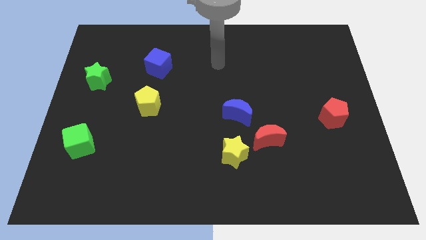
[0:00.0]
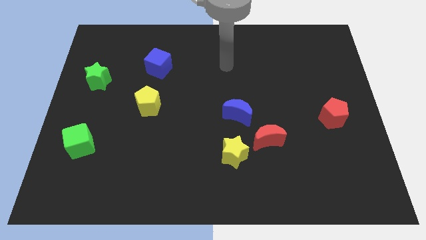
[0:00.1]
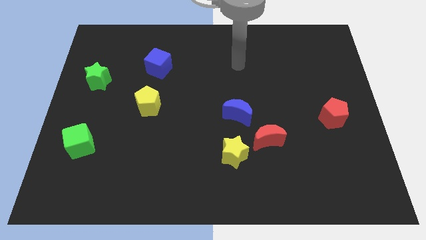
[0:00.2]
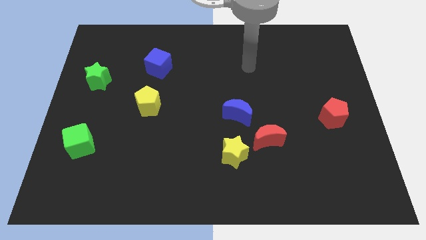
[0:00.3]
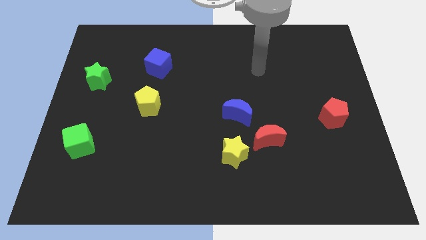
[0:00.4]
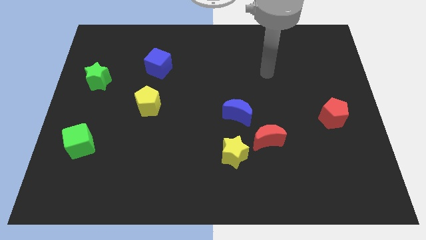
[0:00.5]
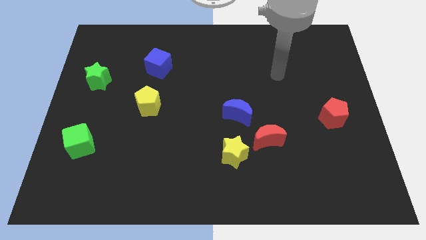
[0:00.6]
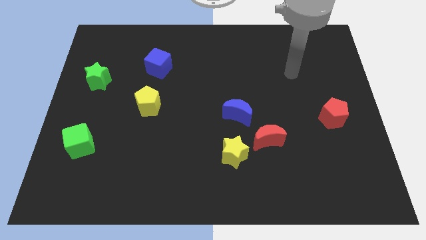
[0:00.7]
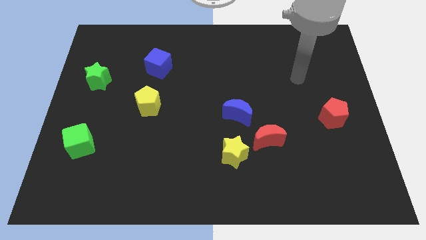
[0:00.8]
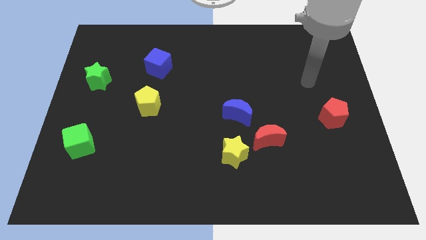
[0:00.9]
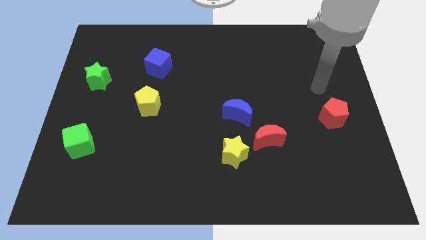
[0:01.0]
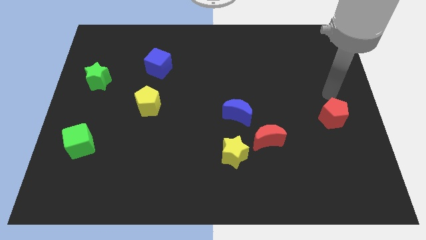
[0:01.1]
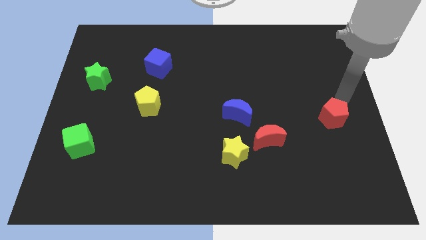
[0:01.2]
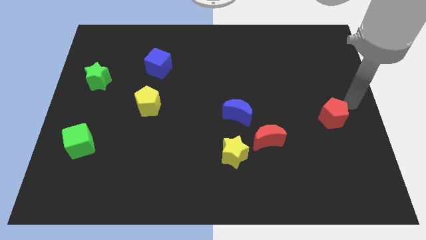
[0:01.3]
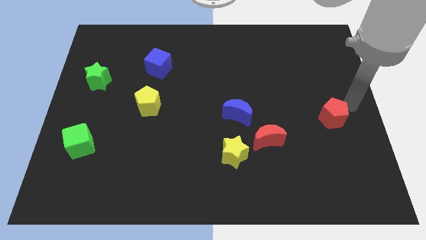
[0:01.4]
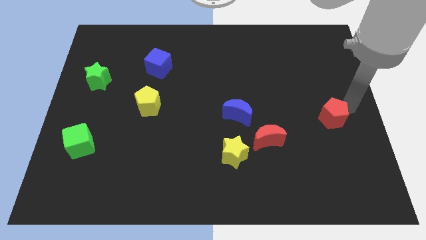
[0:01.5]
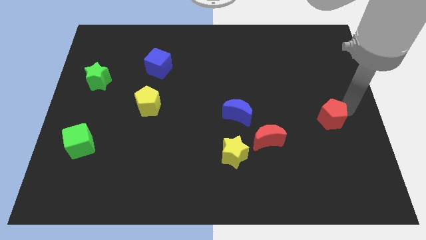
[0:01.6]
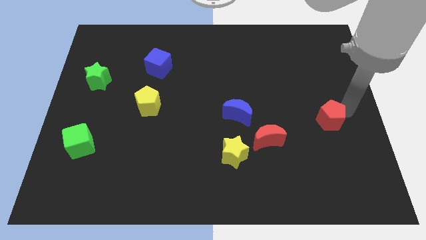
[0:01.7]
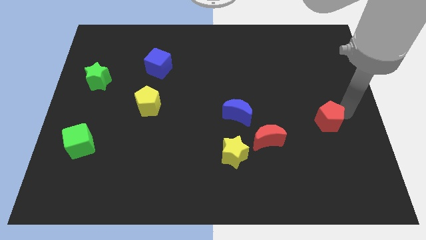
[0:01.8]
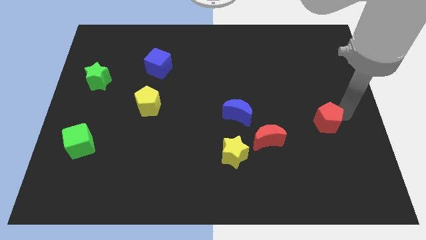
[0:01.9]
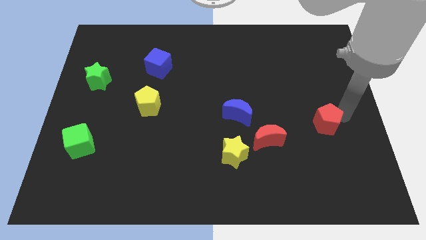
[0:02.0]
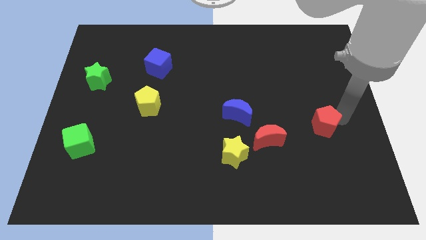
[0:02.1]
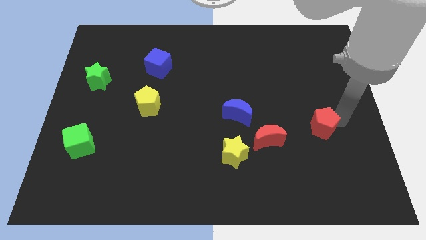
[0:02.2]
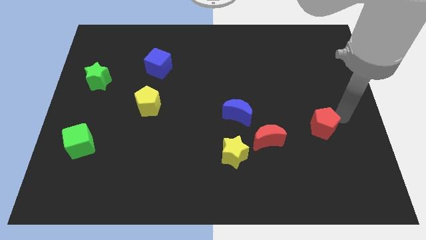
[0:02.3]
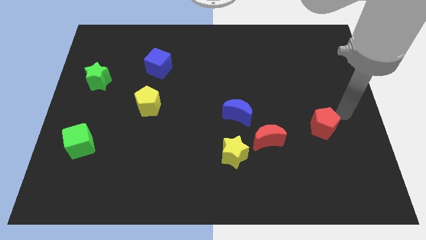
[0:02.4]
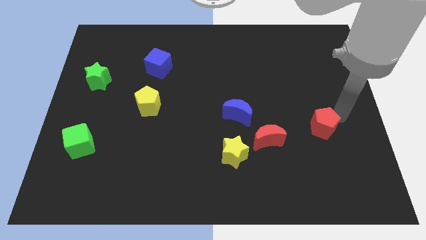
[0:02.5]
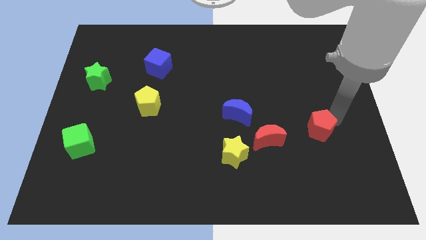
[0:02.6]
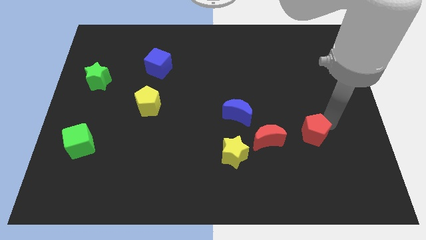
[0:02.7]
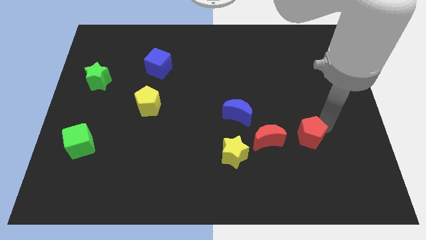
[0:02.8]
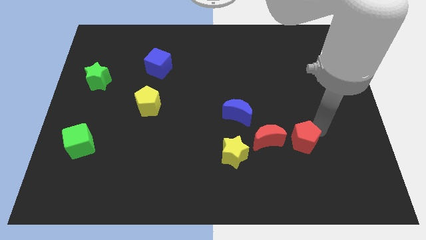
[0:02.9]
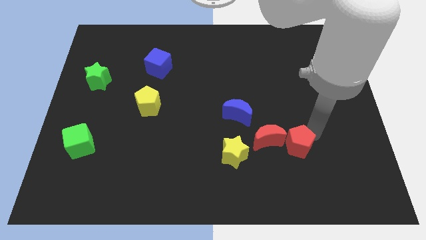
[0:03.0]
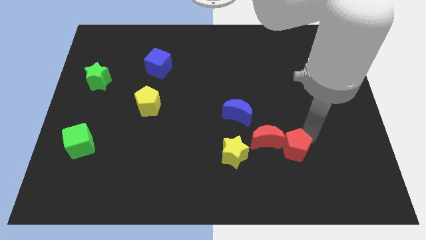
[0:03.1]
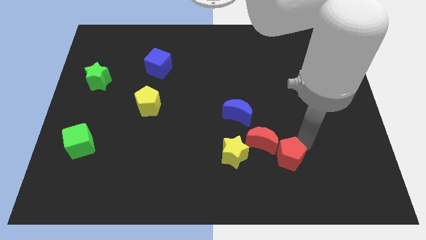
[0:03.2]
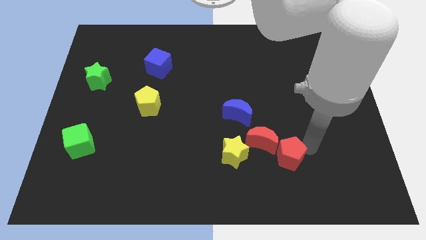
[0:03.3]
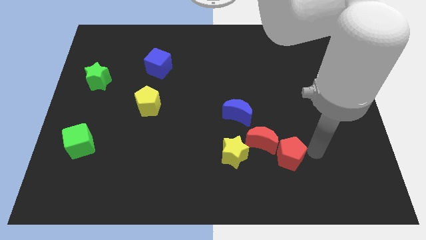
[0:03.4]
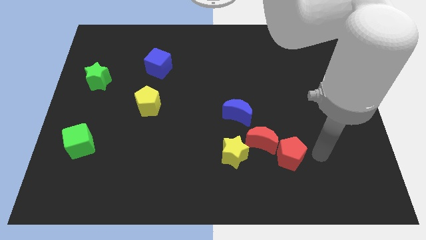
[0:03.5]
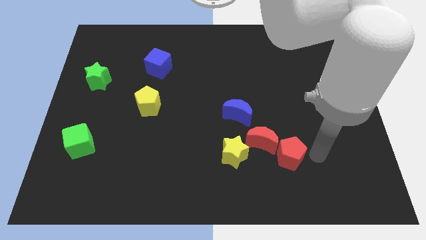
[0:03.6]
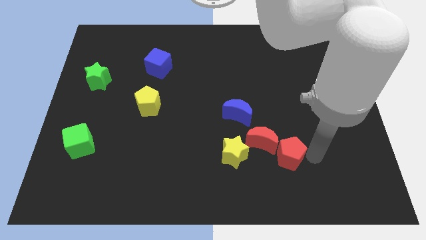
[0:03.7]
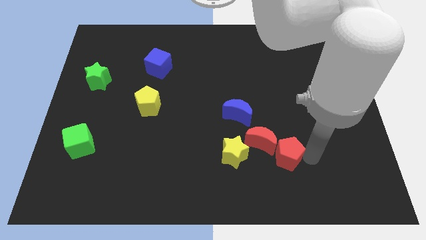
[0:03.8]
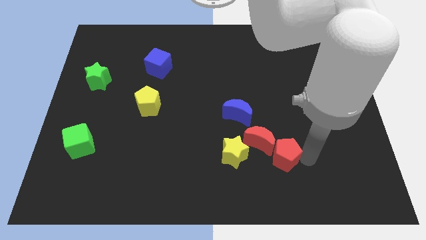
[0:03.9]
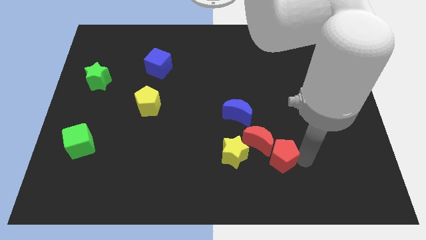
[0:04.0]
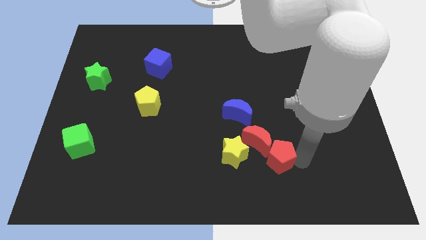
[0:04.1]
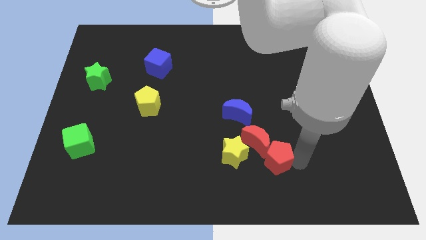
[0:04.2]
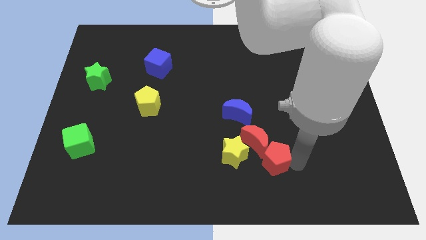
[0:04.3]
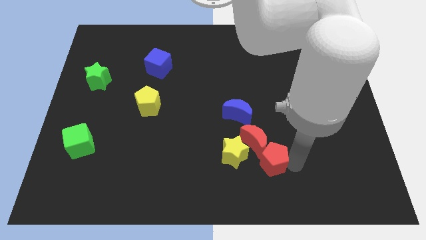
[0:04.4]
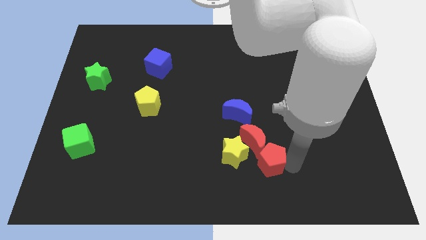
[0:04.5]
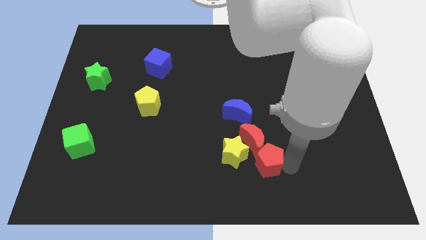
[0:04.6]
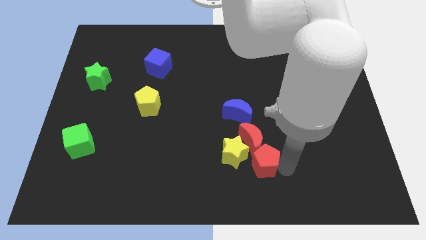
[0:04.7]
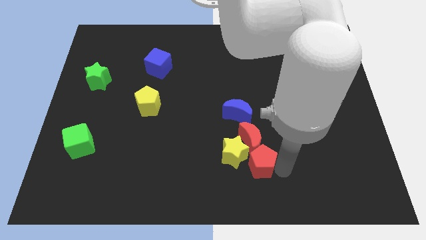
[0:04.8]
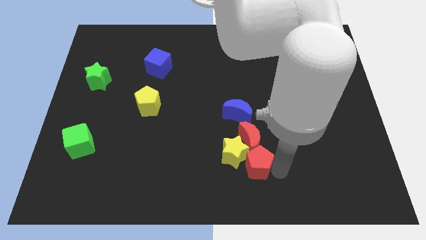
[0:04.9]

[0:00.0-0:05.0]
slide the red pentagon towards the yellow star

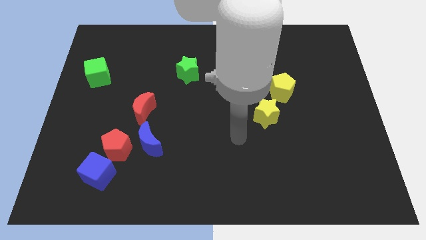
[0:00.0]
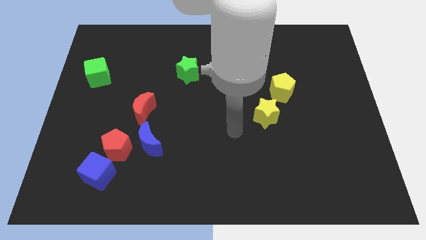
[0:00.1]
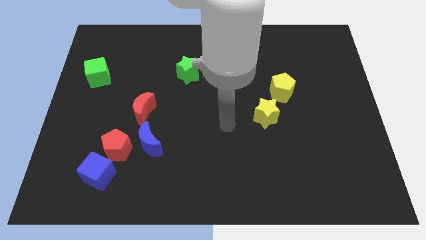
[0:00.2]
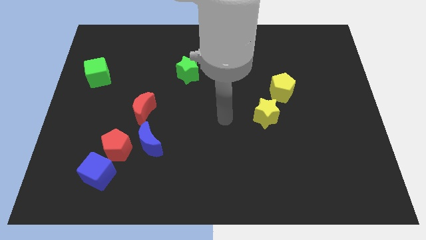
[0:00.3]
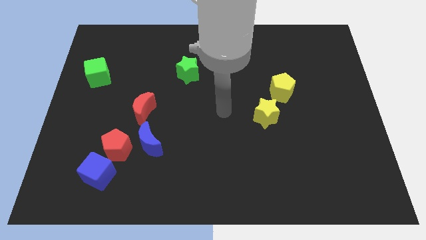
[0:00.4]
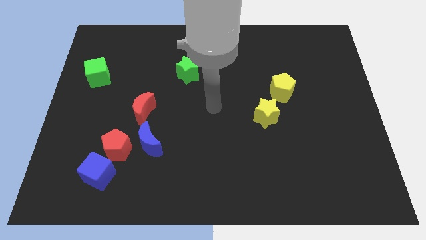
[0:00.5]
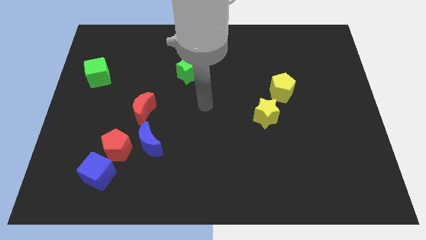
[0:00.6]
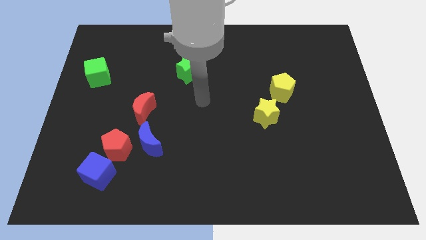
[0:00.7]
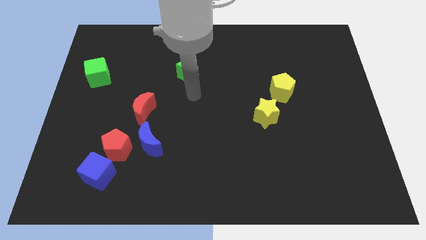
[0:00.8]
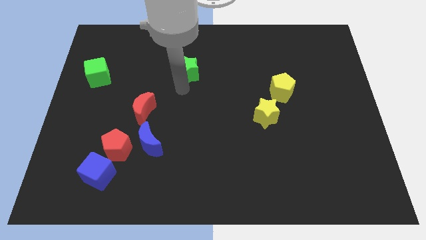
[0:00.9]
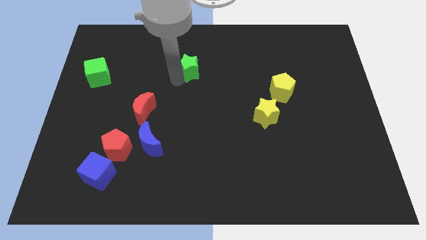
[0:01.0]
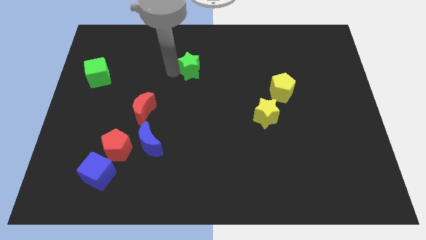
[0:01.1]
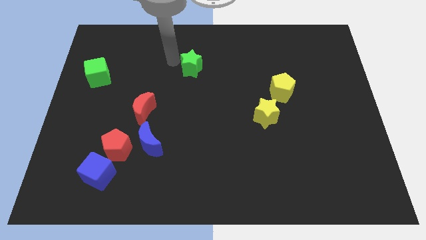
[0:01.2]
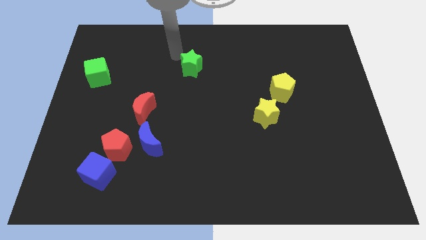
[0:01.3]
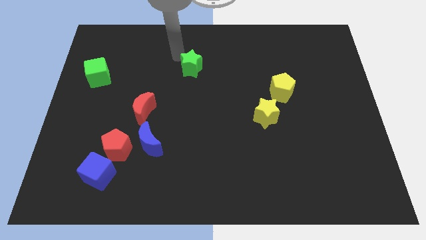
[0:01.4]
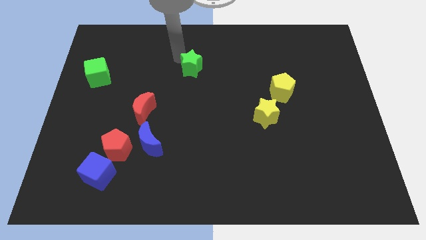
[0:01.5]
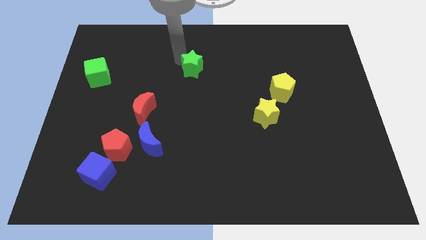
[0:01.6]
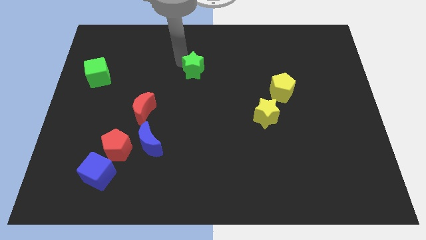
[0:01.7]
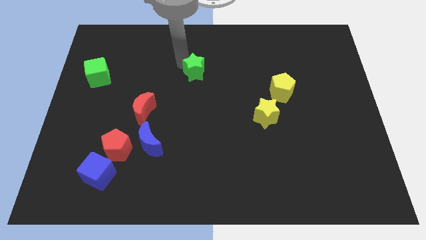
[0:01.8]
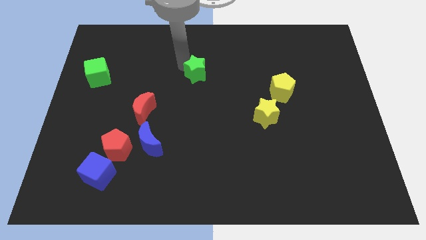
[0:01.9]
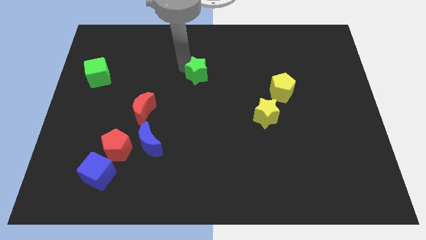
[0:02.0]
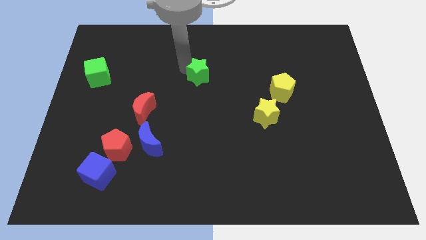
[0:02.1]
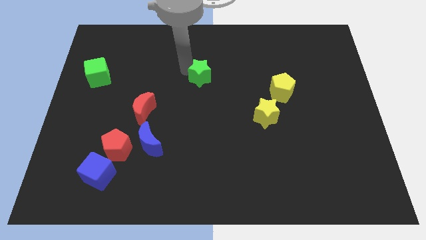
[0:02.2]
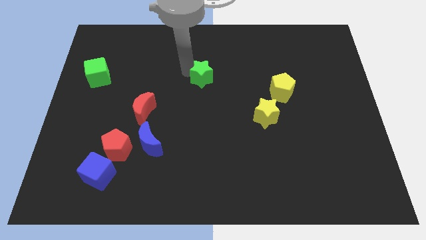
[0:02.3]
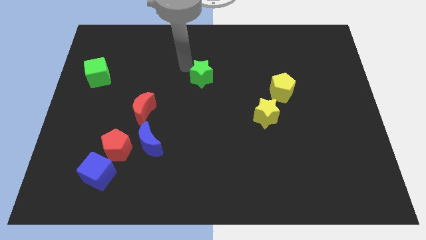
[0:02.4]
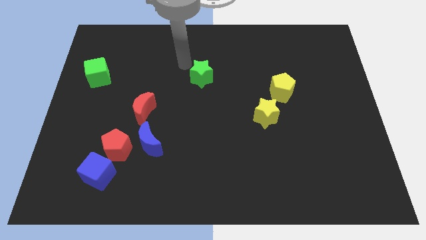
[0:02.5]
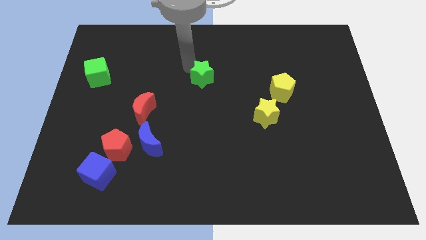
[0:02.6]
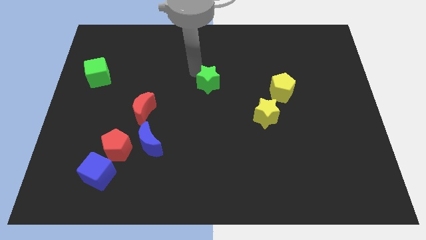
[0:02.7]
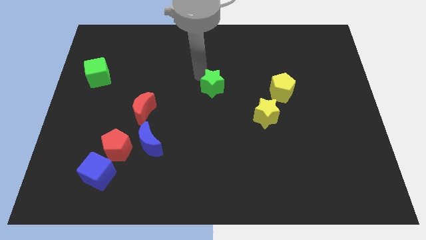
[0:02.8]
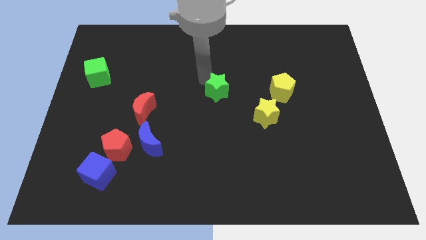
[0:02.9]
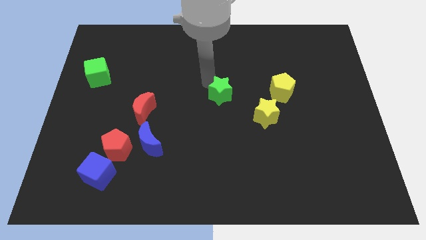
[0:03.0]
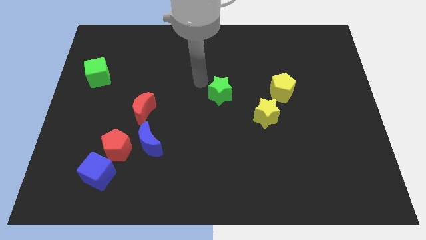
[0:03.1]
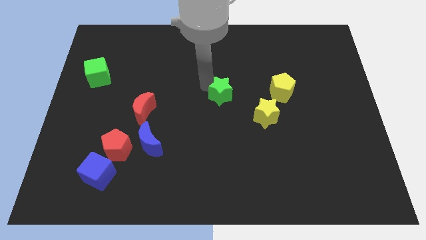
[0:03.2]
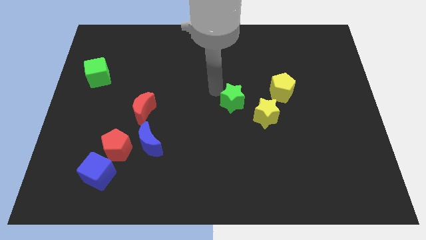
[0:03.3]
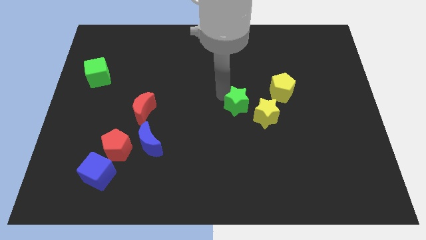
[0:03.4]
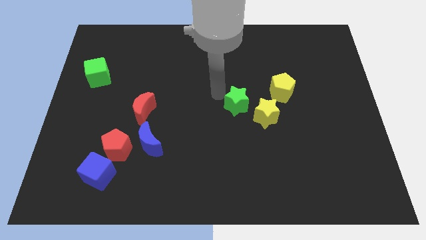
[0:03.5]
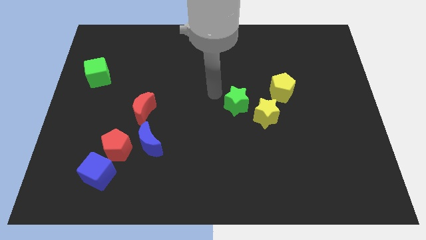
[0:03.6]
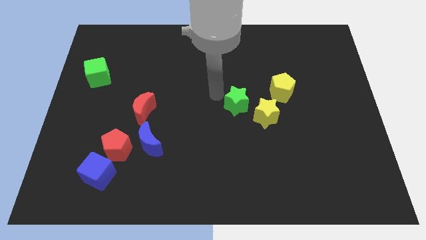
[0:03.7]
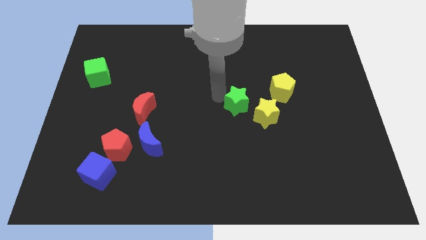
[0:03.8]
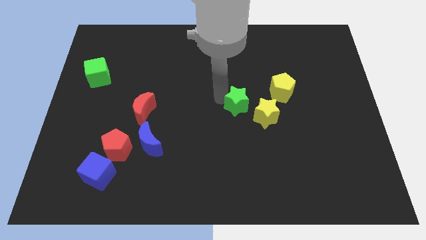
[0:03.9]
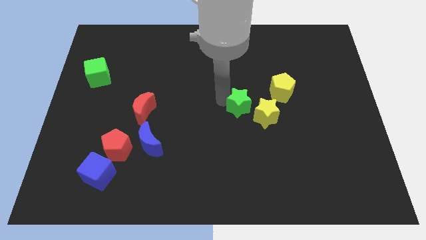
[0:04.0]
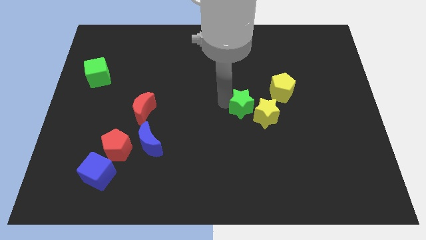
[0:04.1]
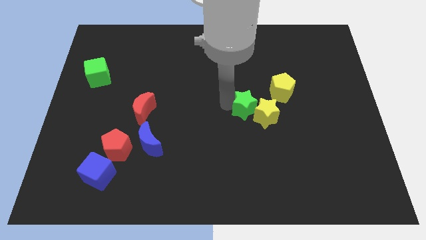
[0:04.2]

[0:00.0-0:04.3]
put the green star next to the yellow star
